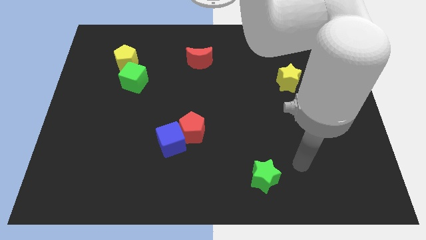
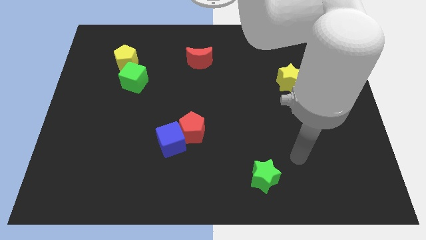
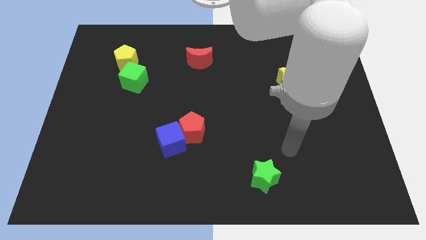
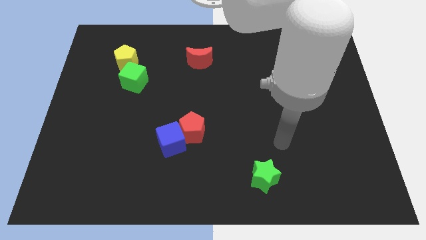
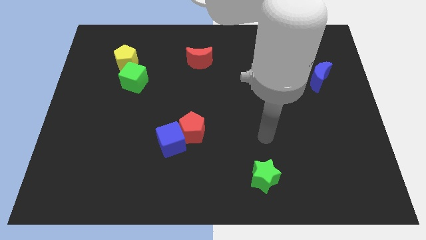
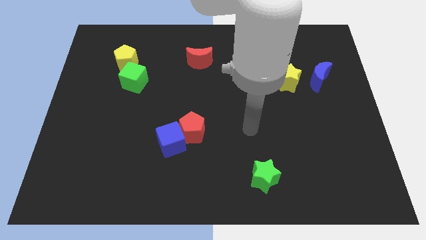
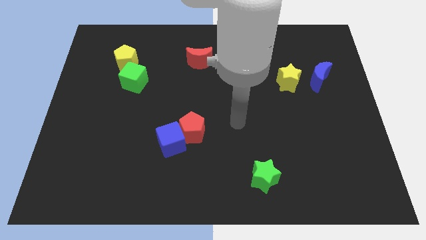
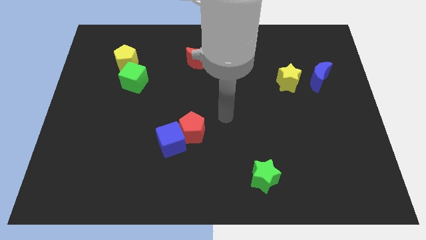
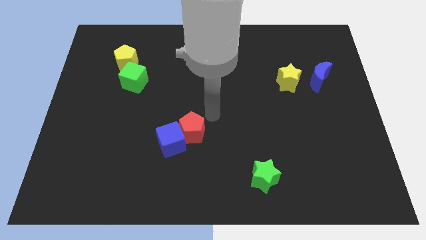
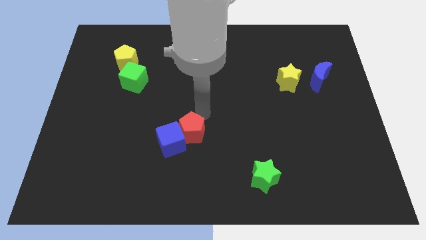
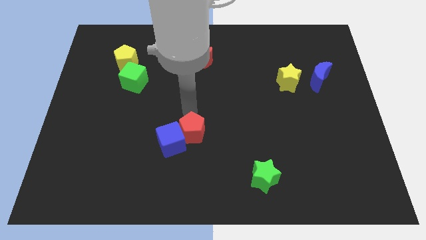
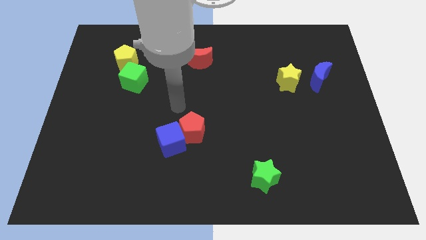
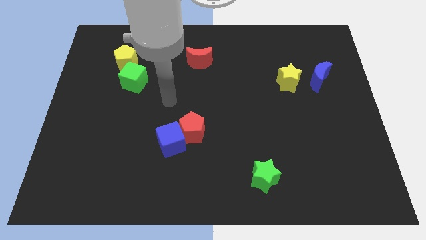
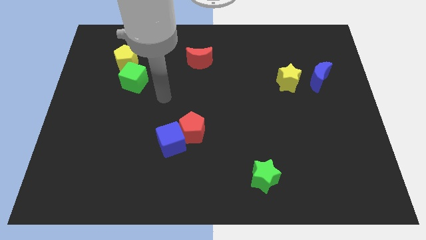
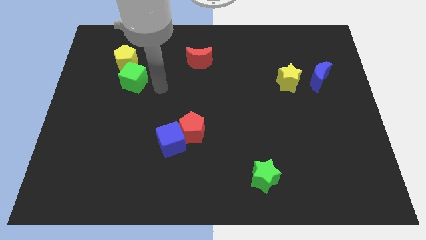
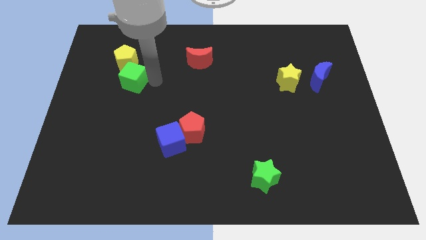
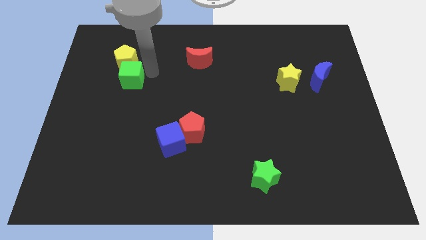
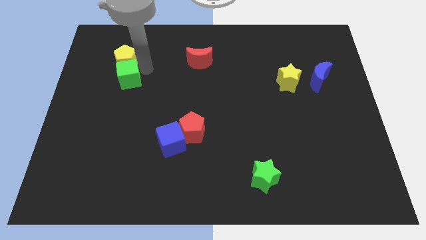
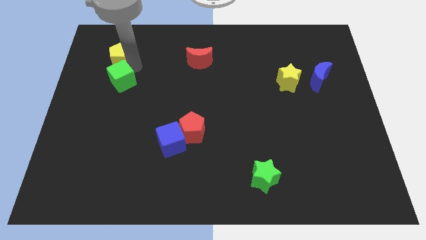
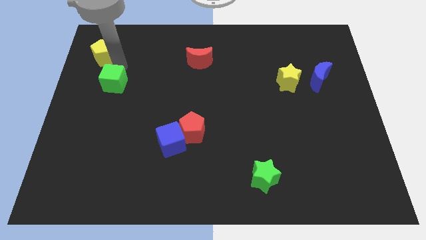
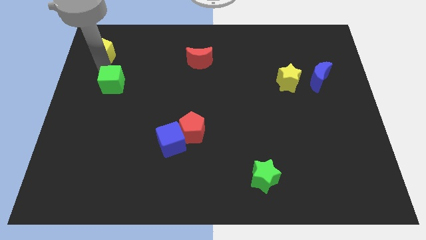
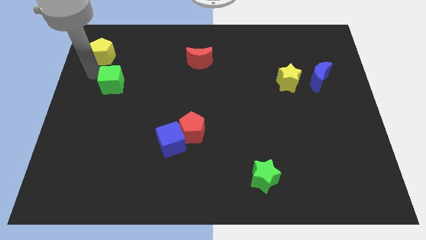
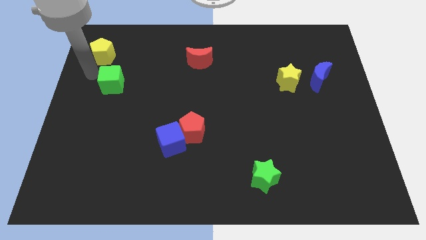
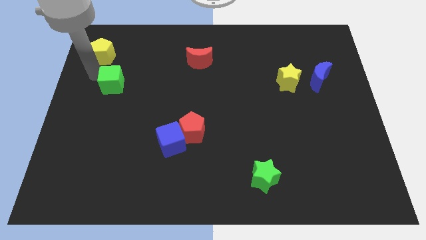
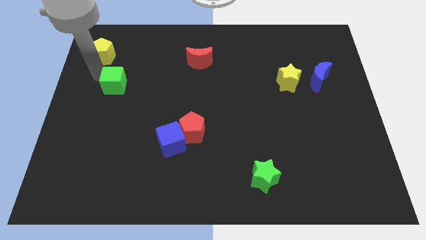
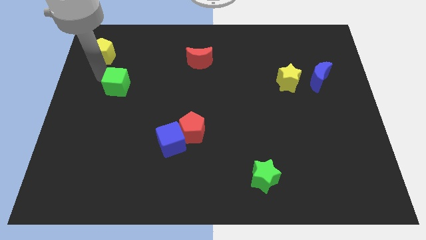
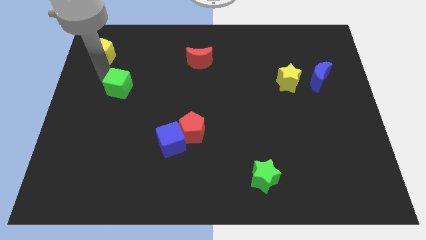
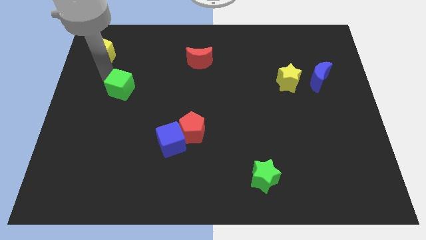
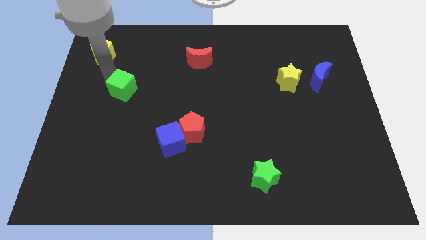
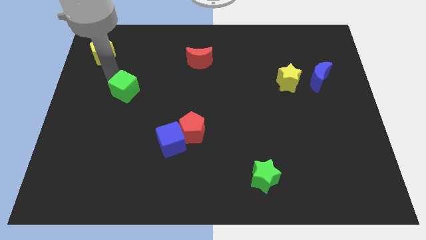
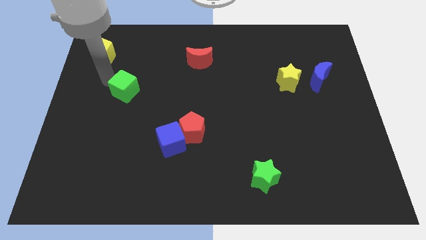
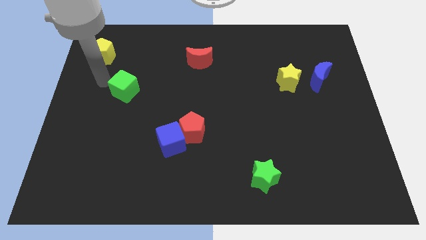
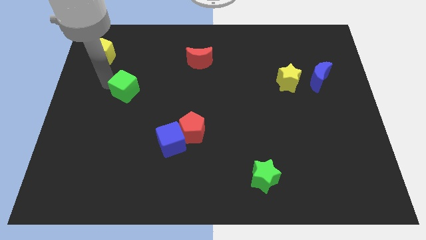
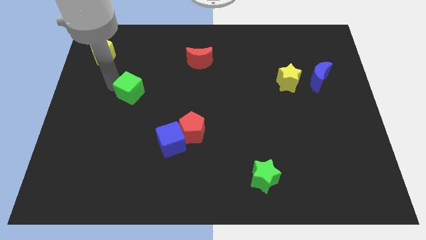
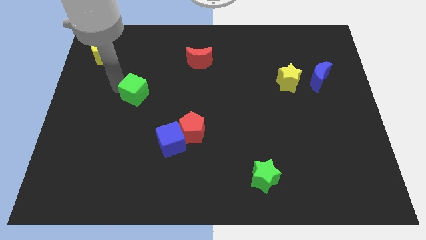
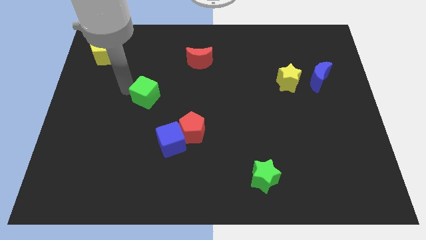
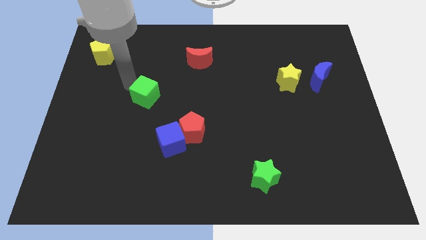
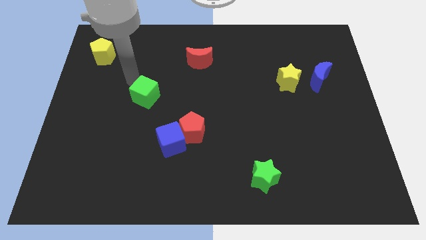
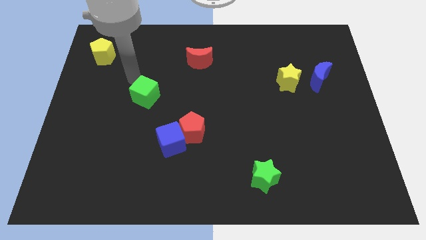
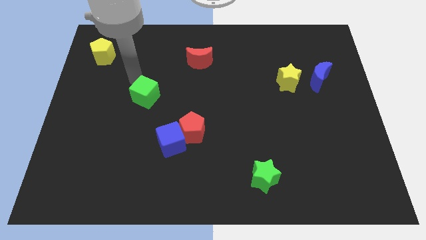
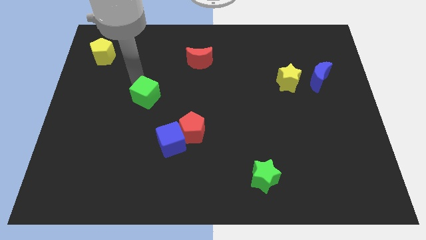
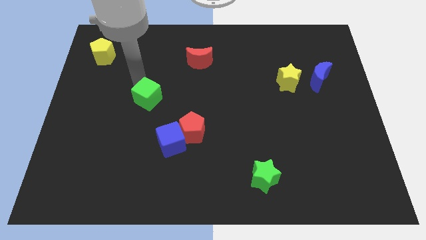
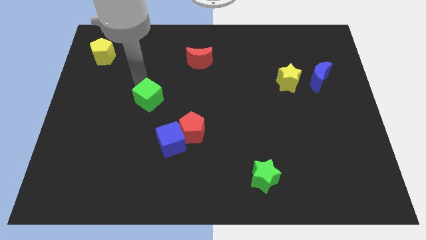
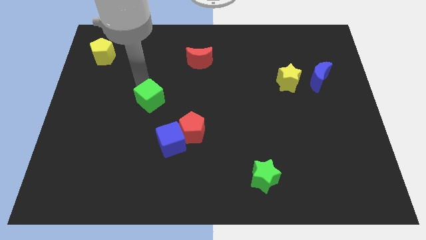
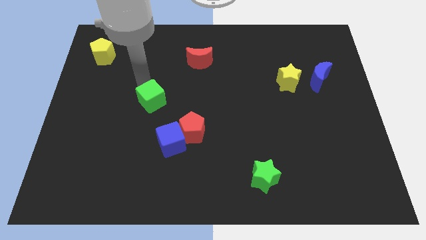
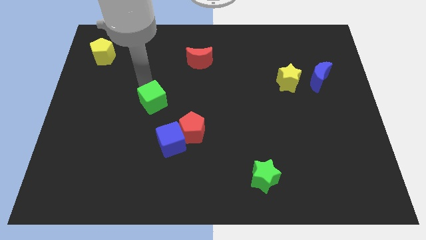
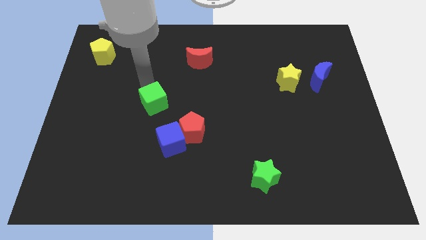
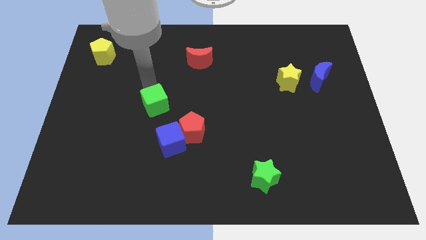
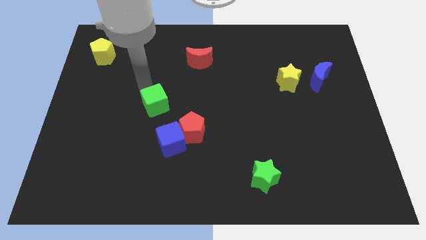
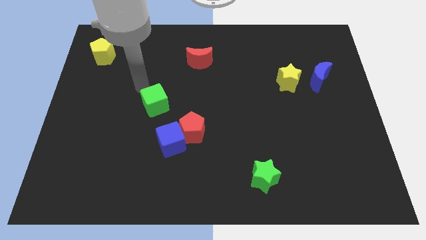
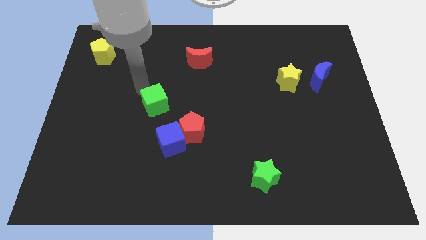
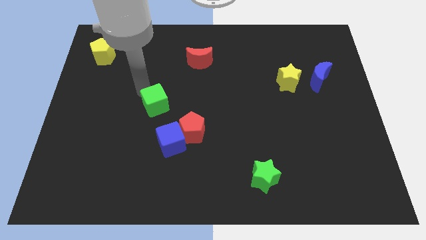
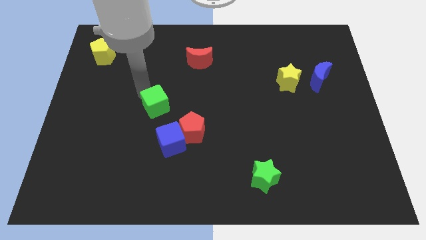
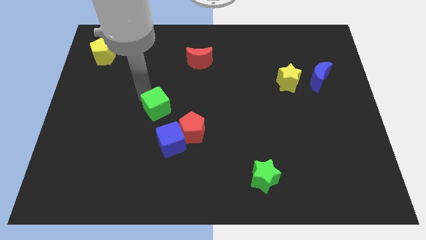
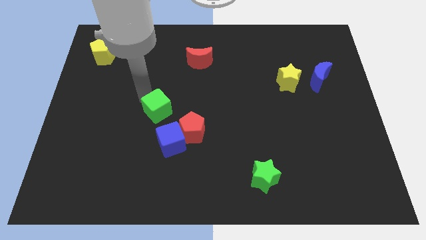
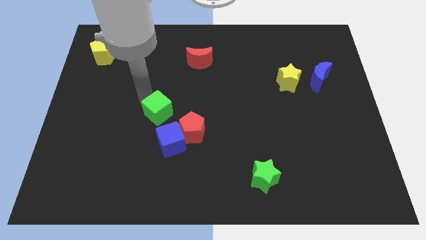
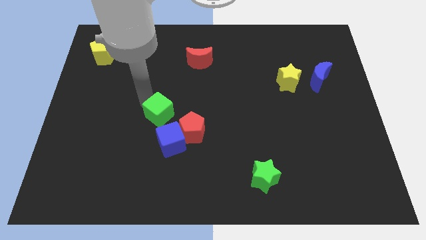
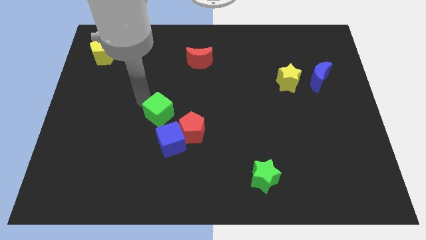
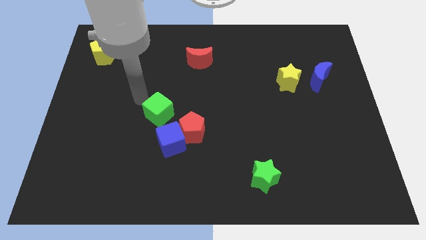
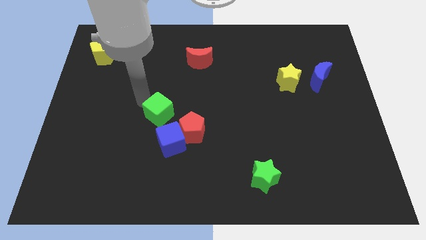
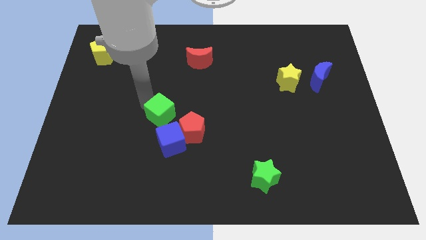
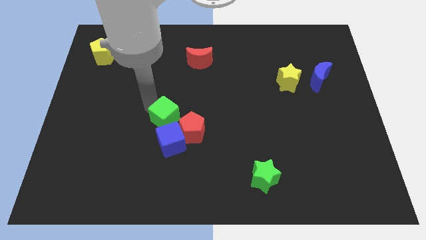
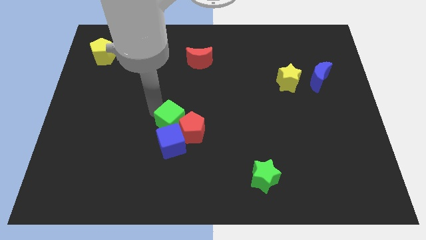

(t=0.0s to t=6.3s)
move the green cube to the red pentagon

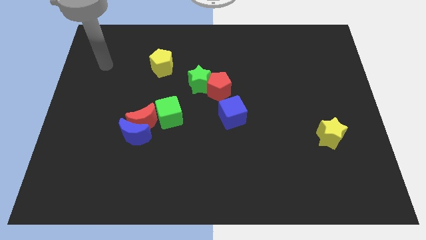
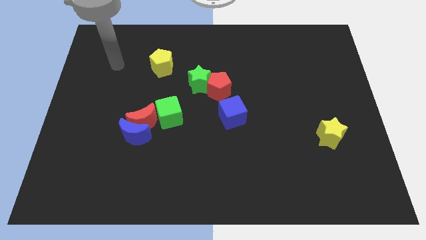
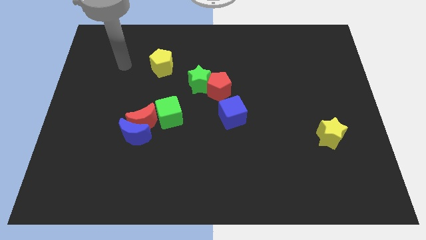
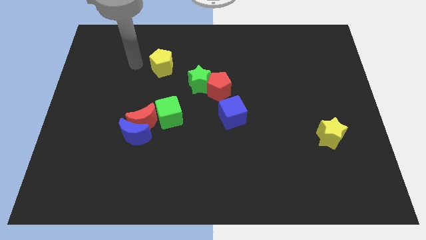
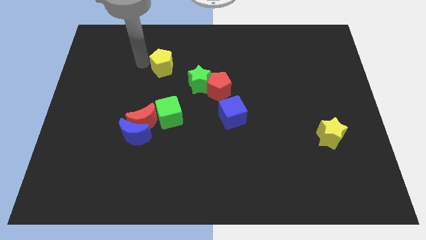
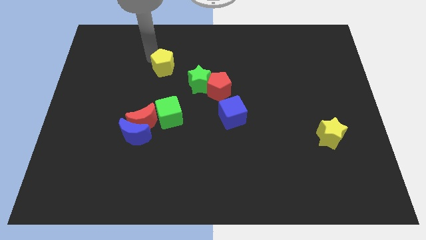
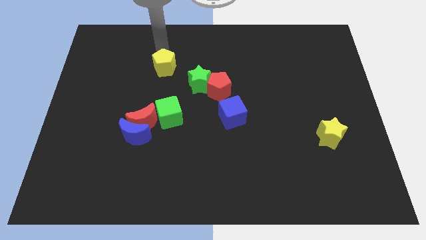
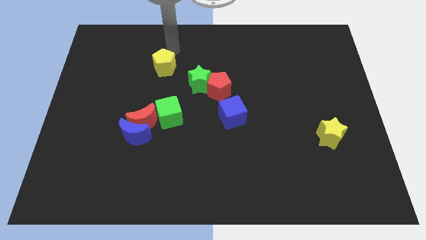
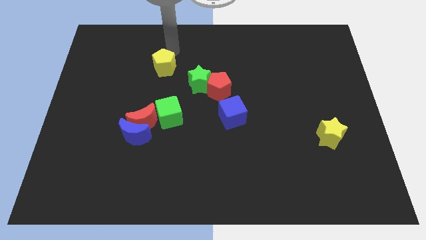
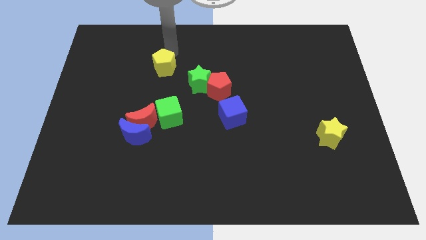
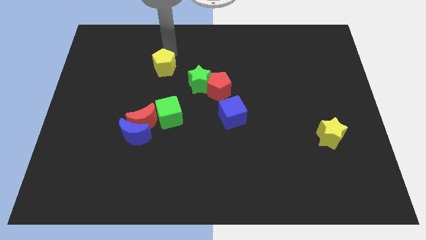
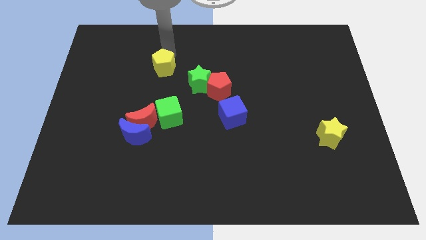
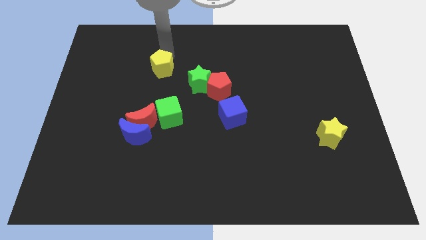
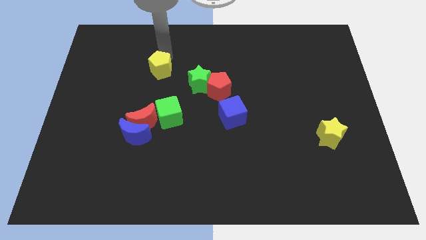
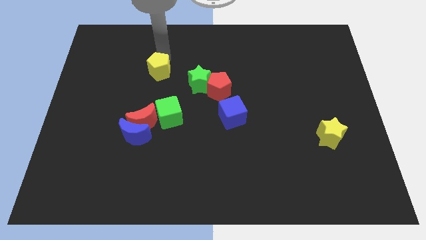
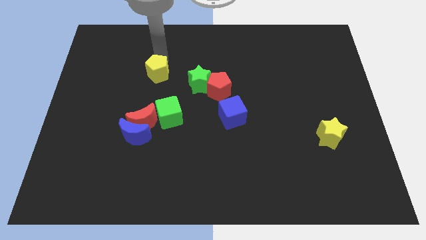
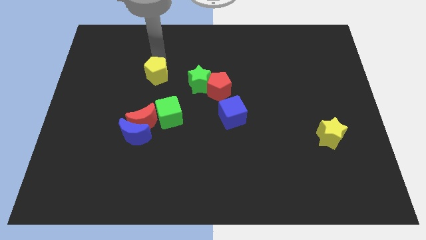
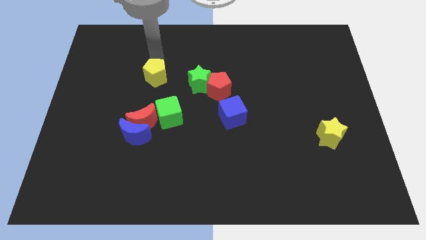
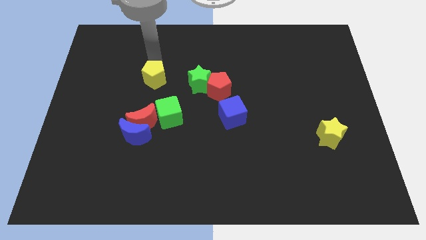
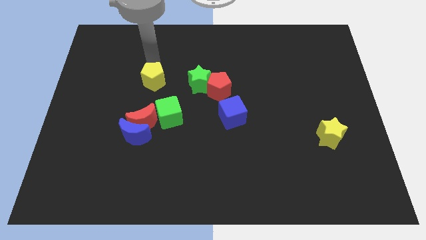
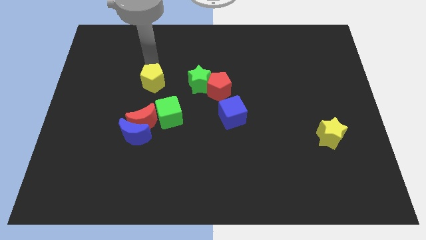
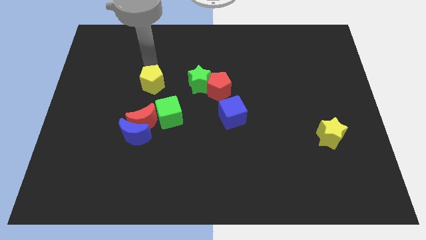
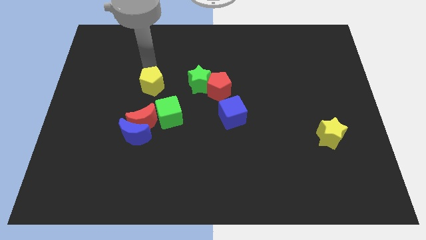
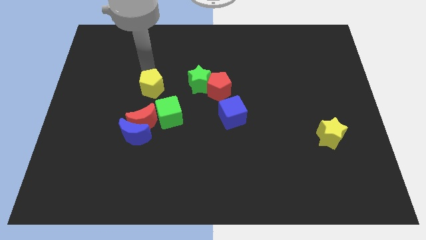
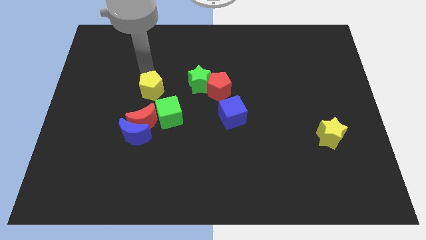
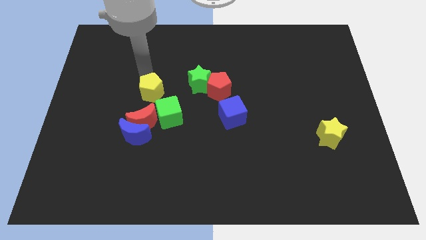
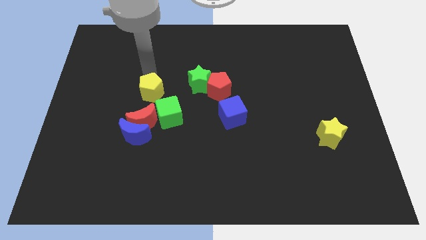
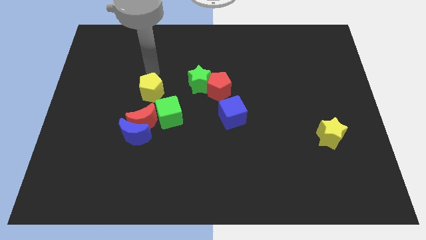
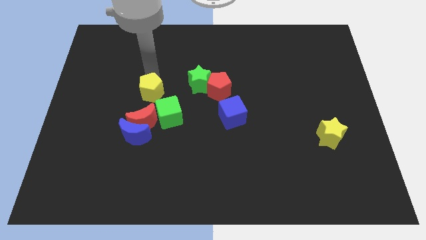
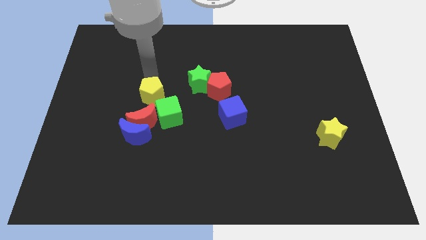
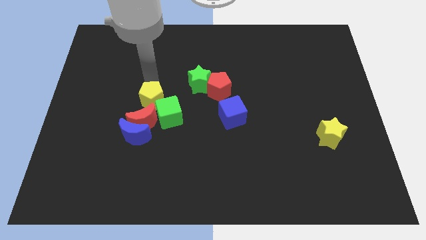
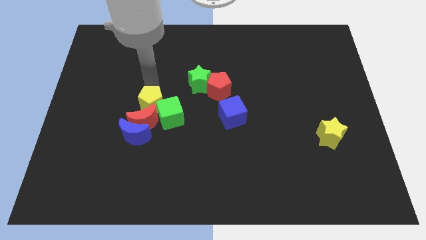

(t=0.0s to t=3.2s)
move the yellow pentagon towards the red moon
